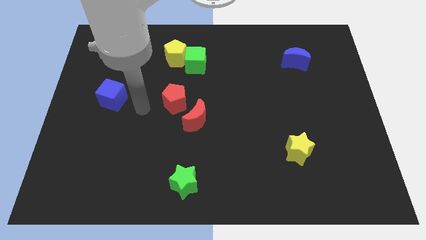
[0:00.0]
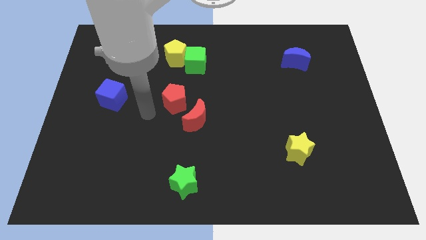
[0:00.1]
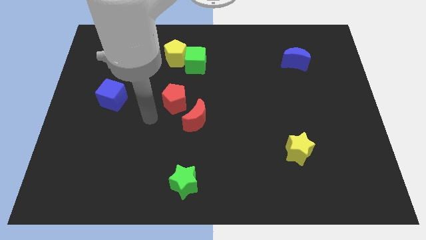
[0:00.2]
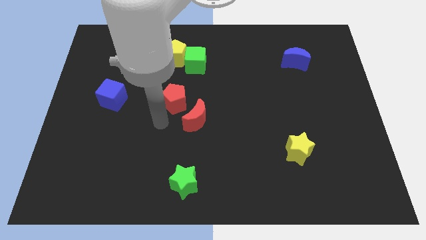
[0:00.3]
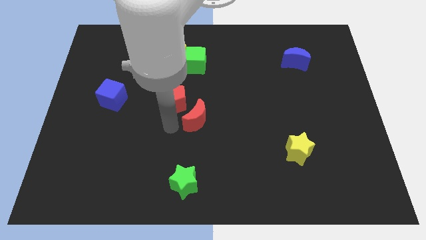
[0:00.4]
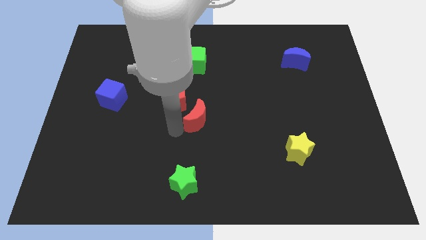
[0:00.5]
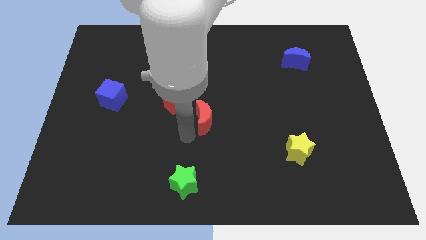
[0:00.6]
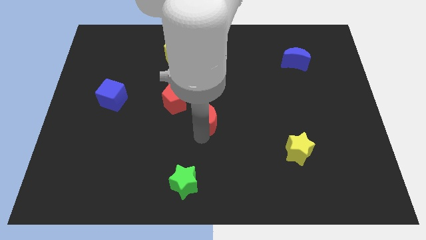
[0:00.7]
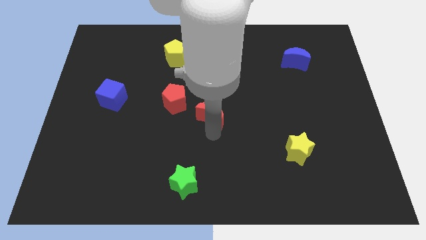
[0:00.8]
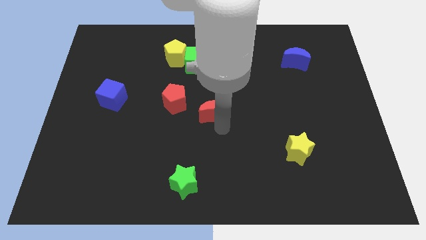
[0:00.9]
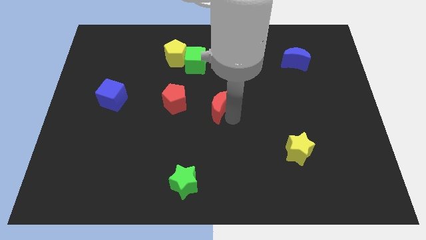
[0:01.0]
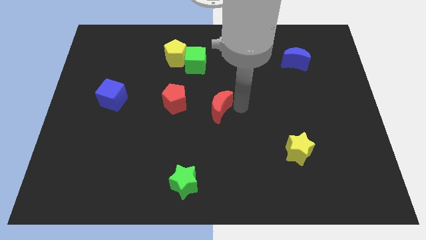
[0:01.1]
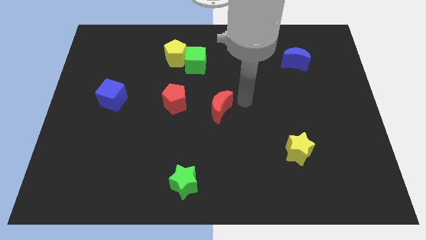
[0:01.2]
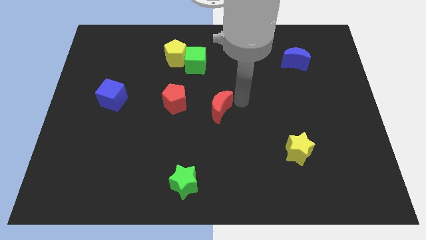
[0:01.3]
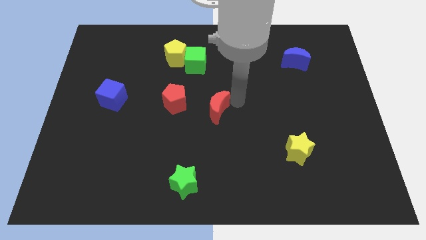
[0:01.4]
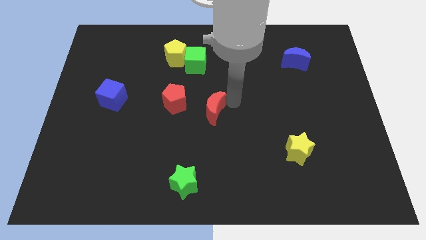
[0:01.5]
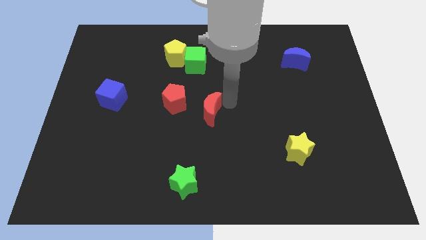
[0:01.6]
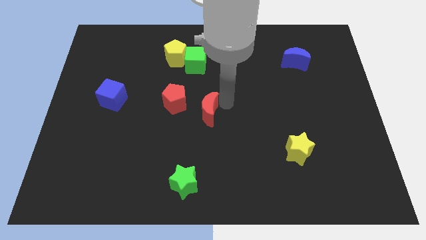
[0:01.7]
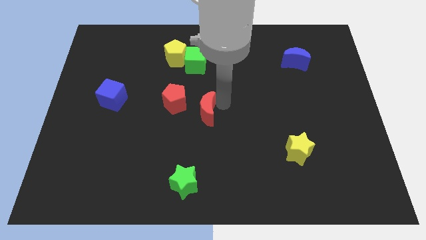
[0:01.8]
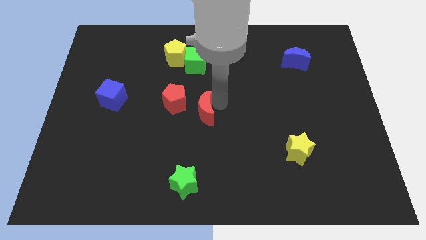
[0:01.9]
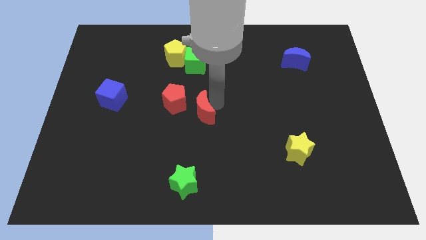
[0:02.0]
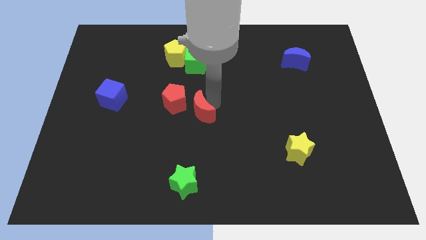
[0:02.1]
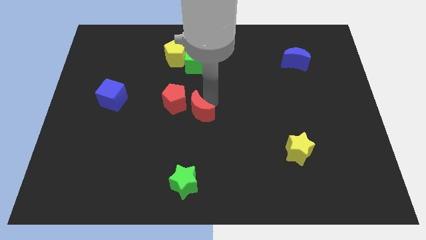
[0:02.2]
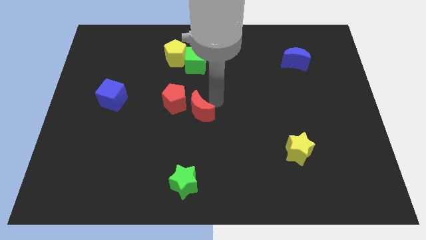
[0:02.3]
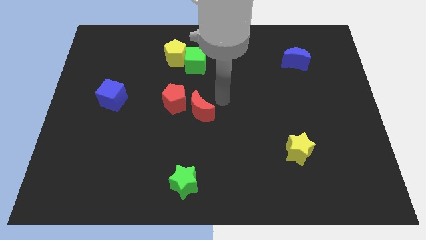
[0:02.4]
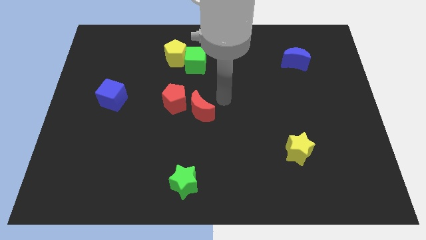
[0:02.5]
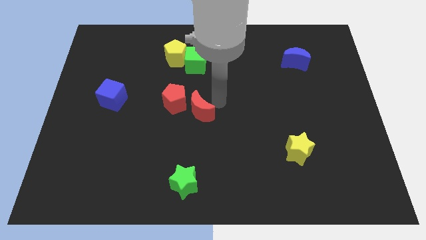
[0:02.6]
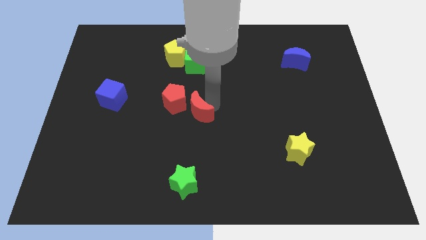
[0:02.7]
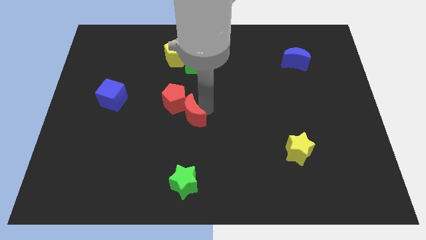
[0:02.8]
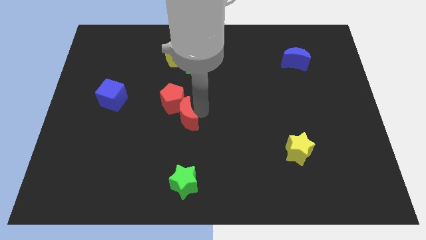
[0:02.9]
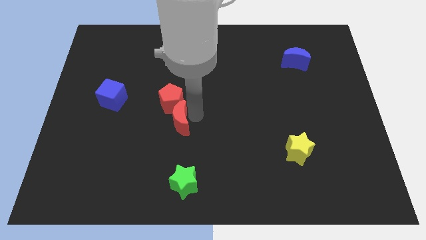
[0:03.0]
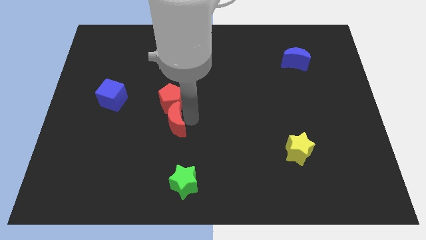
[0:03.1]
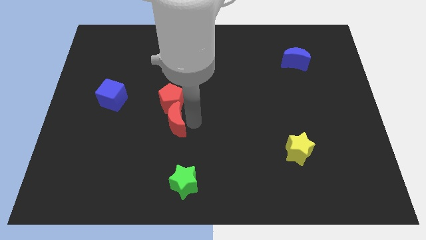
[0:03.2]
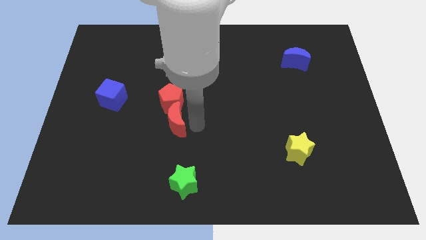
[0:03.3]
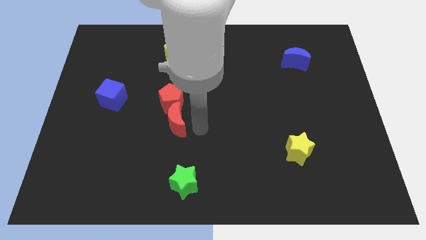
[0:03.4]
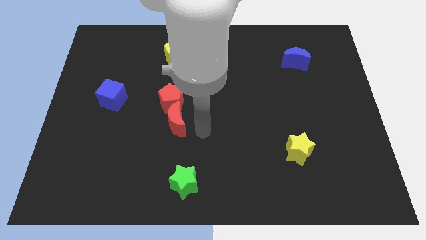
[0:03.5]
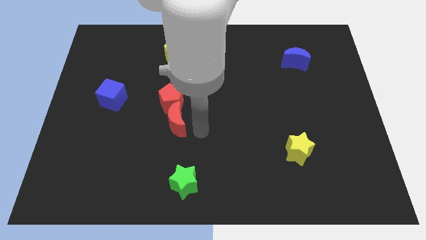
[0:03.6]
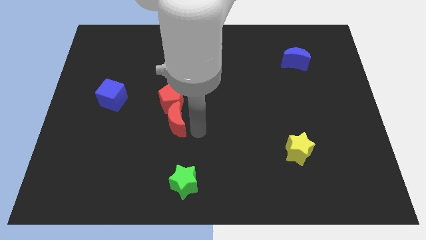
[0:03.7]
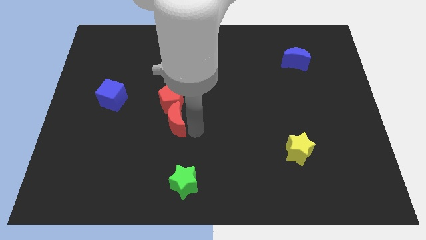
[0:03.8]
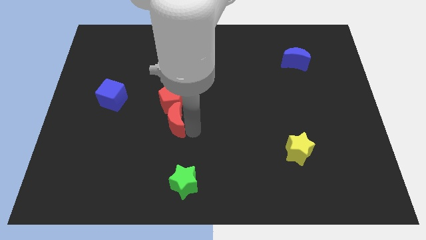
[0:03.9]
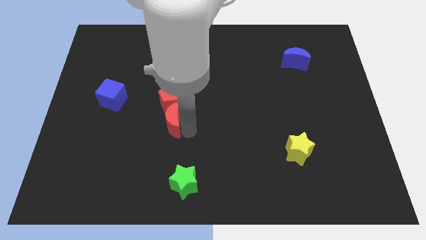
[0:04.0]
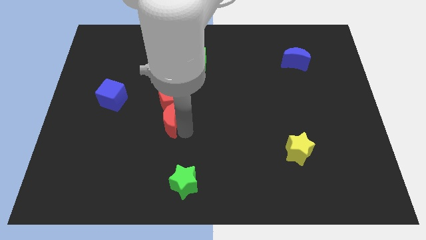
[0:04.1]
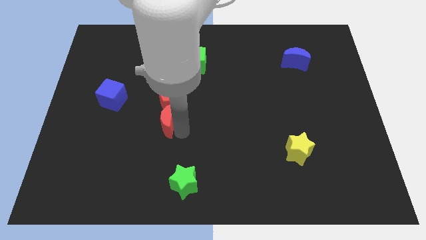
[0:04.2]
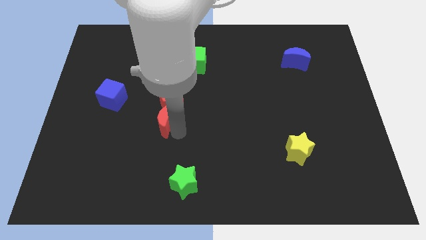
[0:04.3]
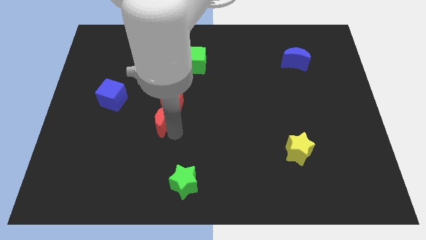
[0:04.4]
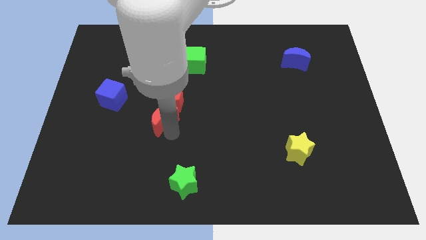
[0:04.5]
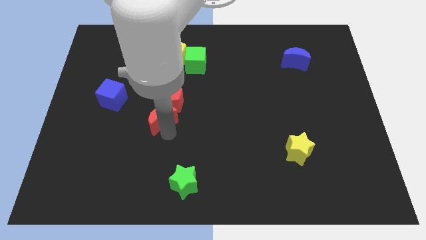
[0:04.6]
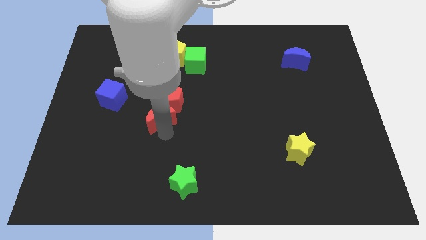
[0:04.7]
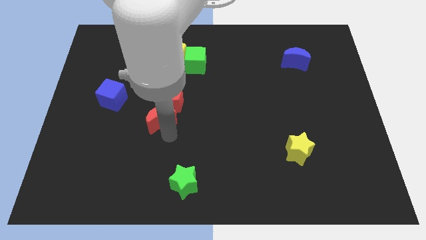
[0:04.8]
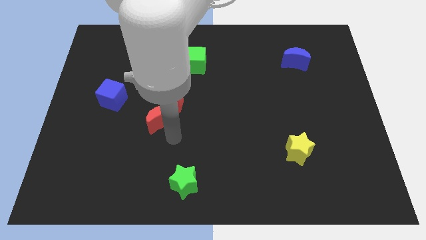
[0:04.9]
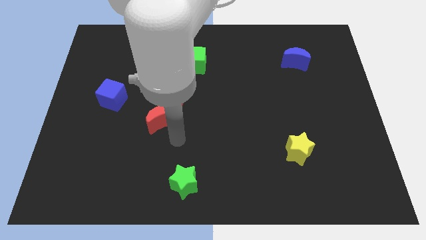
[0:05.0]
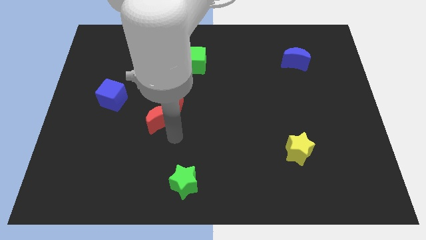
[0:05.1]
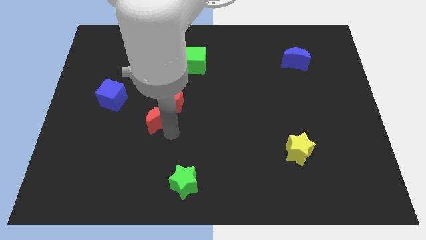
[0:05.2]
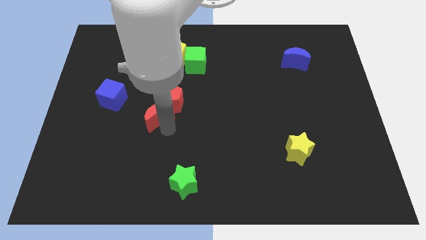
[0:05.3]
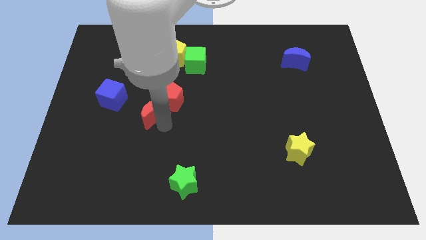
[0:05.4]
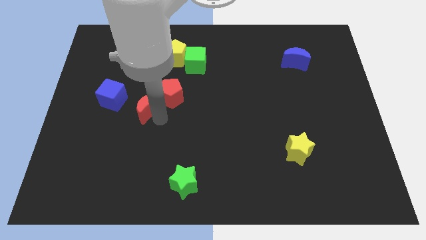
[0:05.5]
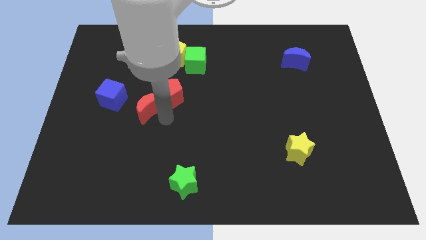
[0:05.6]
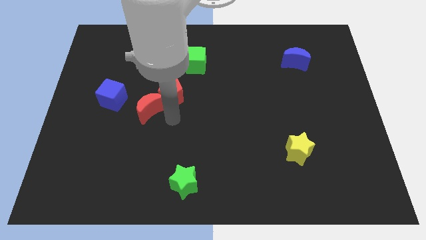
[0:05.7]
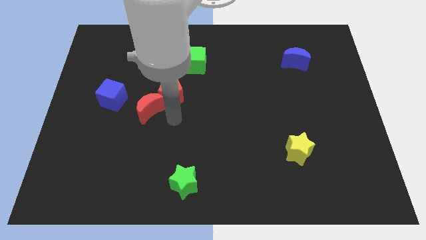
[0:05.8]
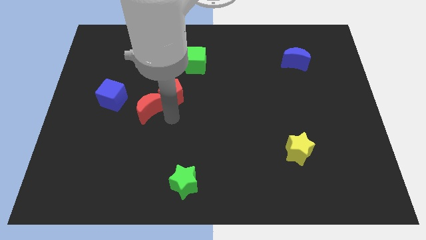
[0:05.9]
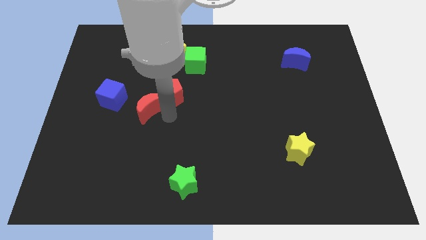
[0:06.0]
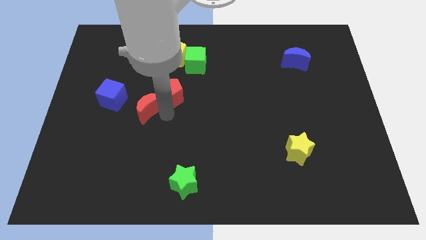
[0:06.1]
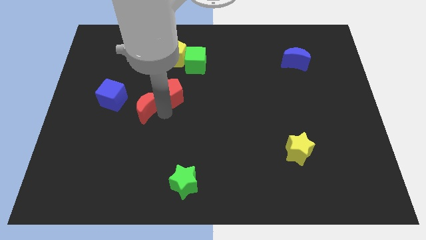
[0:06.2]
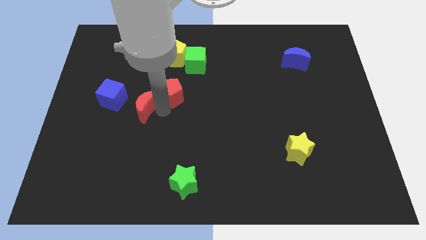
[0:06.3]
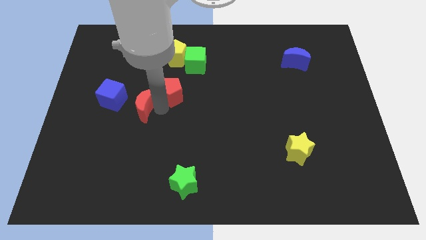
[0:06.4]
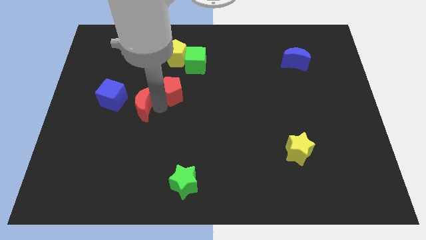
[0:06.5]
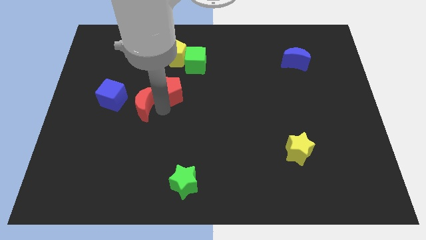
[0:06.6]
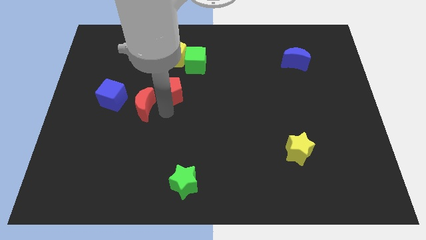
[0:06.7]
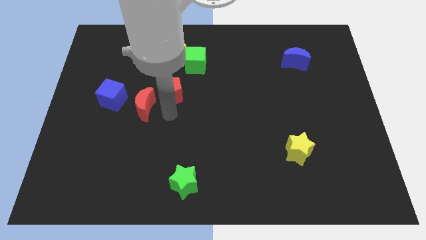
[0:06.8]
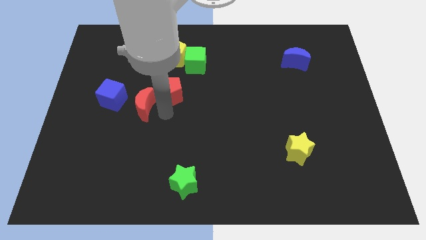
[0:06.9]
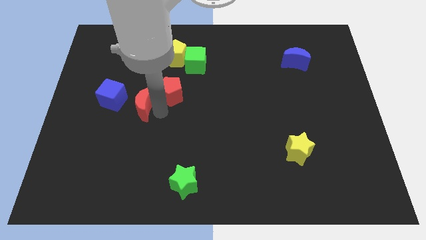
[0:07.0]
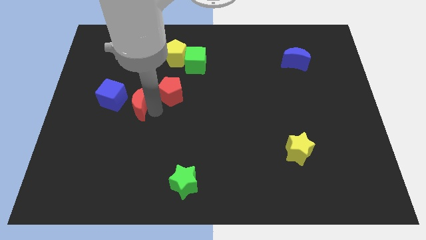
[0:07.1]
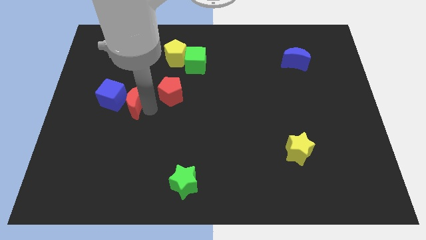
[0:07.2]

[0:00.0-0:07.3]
push the red moon to the blue cube

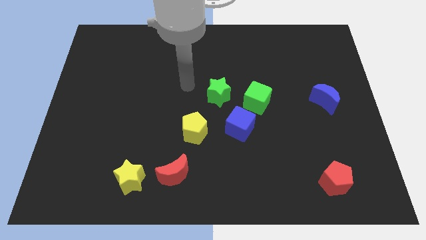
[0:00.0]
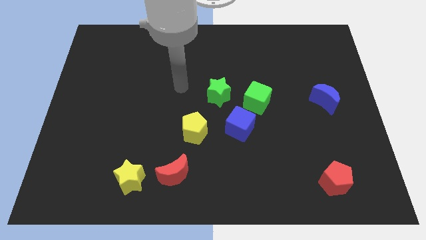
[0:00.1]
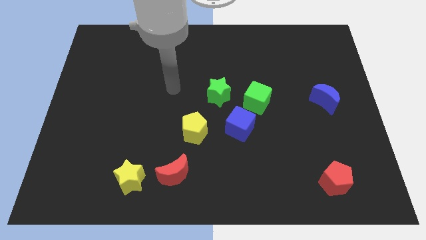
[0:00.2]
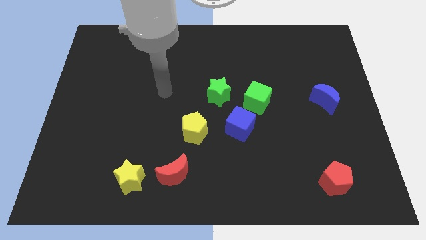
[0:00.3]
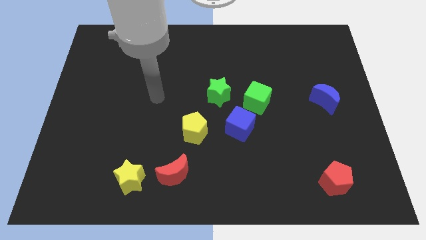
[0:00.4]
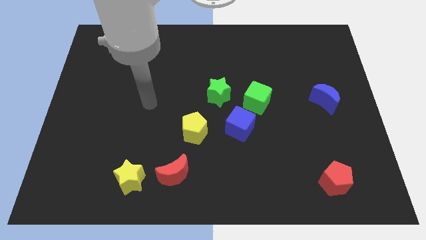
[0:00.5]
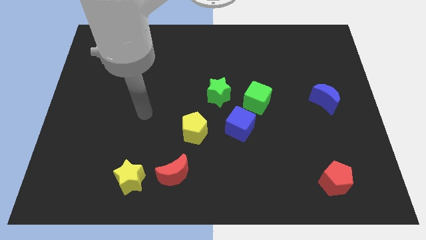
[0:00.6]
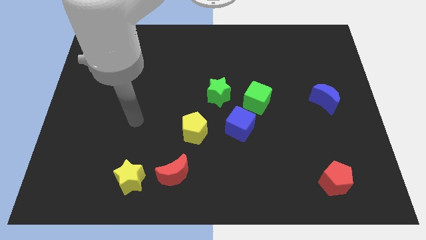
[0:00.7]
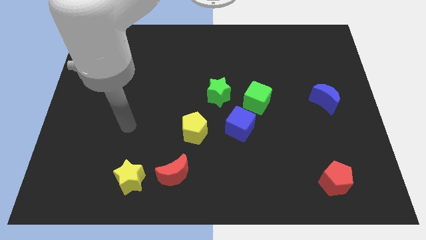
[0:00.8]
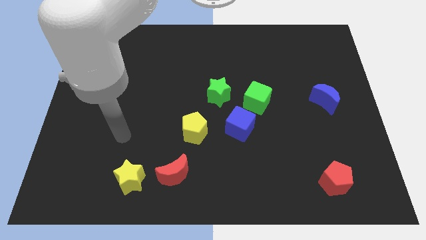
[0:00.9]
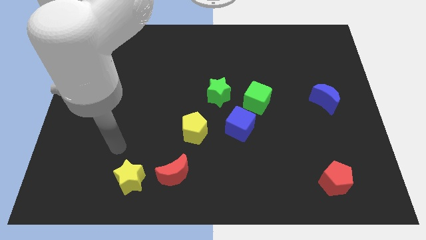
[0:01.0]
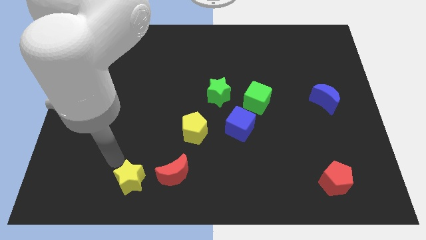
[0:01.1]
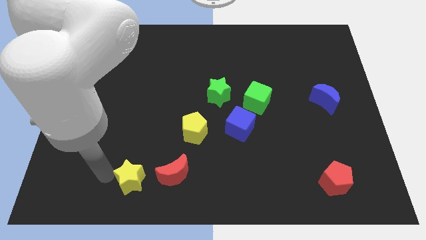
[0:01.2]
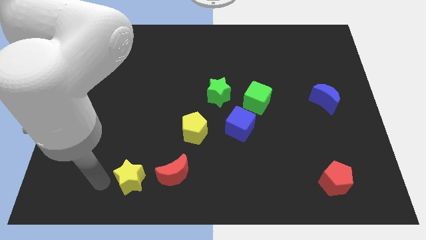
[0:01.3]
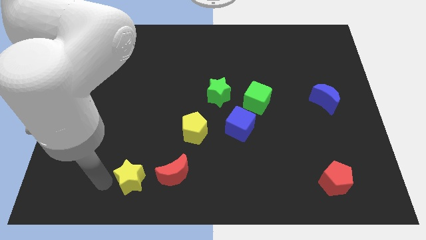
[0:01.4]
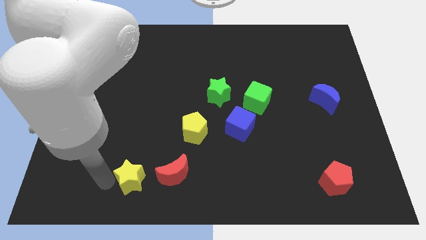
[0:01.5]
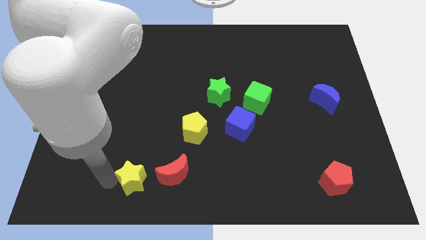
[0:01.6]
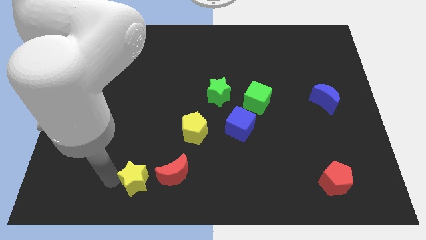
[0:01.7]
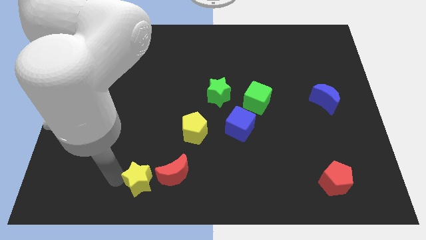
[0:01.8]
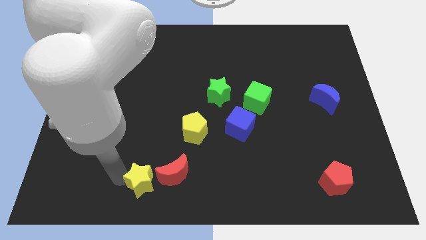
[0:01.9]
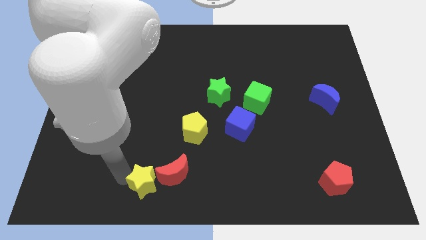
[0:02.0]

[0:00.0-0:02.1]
put the yellow star towards the red moon
